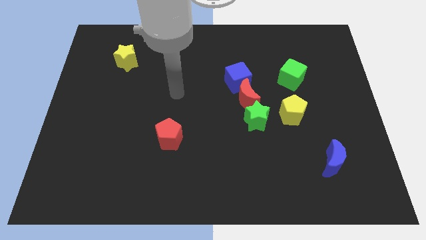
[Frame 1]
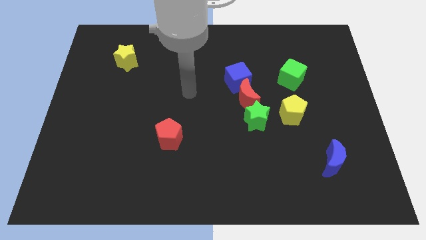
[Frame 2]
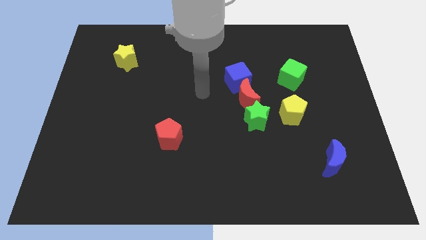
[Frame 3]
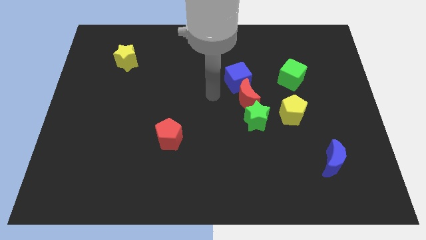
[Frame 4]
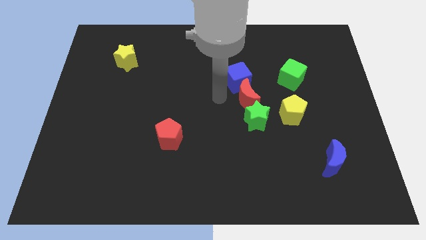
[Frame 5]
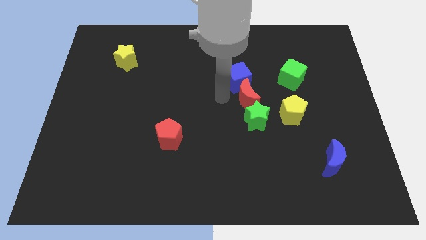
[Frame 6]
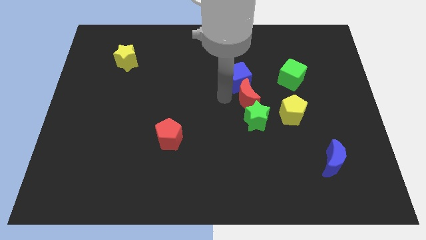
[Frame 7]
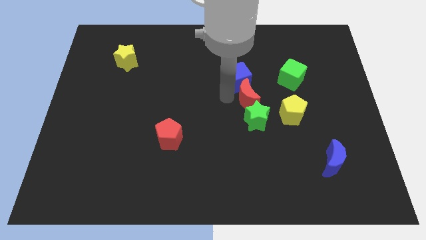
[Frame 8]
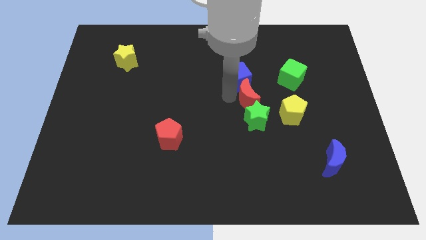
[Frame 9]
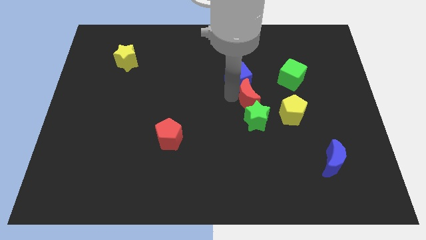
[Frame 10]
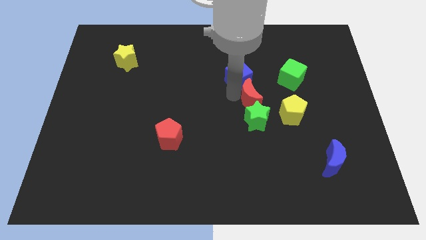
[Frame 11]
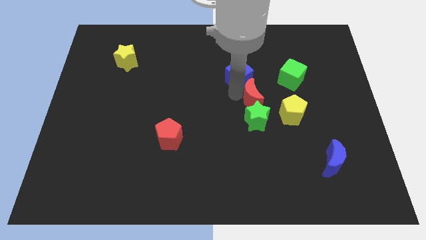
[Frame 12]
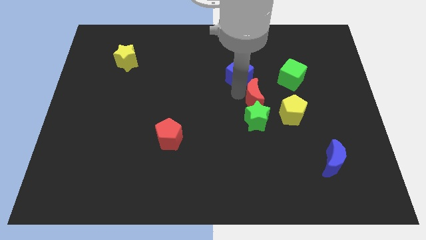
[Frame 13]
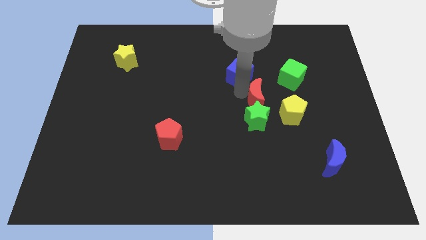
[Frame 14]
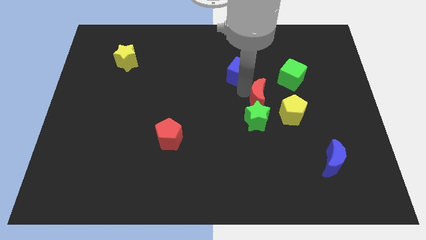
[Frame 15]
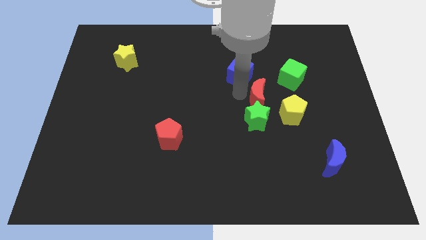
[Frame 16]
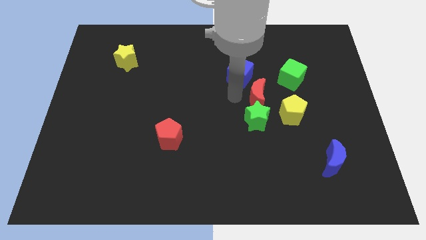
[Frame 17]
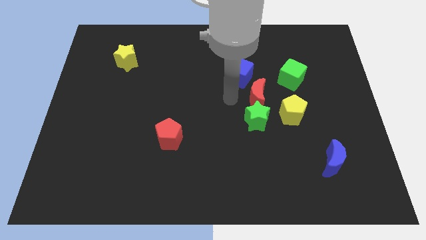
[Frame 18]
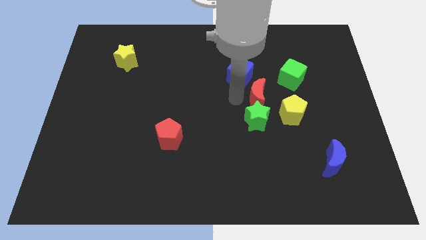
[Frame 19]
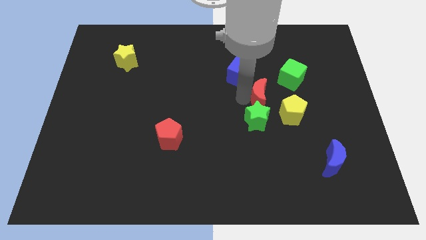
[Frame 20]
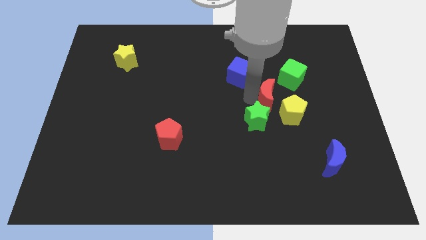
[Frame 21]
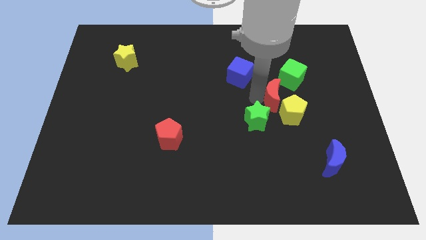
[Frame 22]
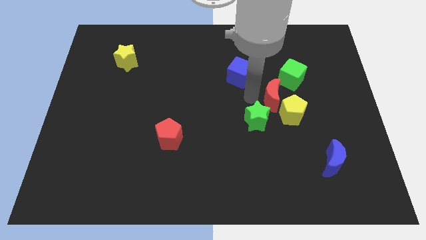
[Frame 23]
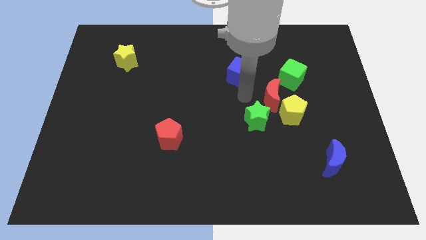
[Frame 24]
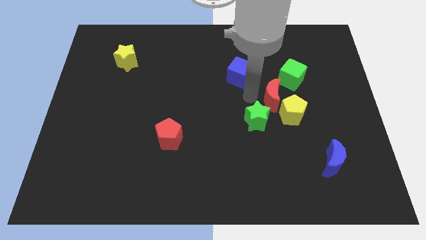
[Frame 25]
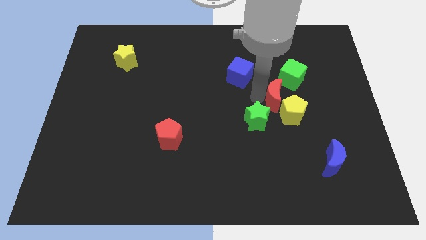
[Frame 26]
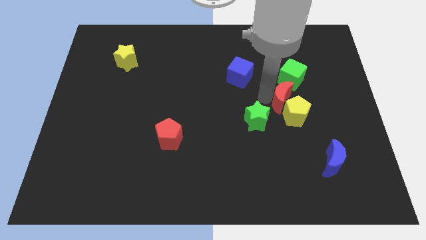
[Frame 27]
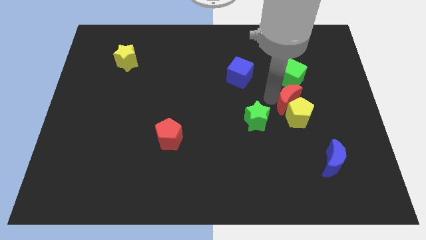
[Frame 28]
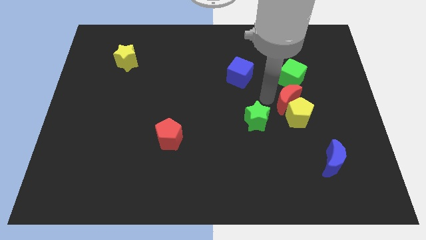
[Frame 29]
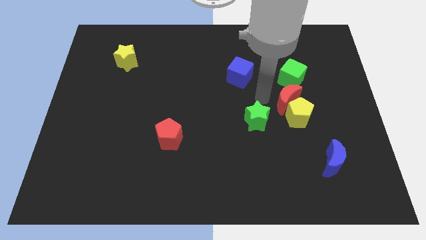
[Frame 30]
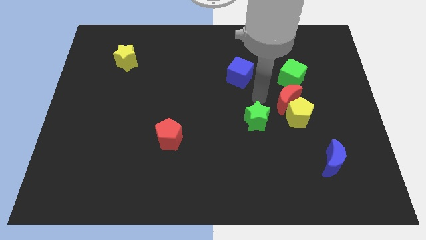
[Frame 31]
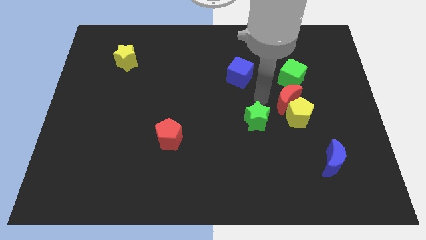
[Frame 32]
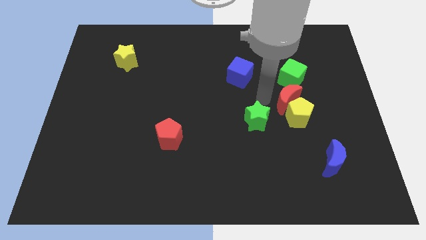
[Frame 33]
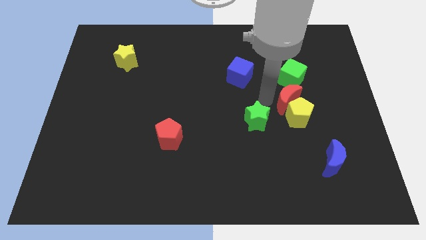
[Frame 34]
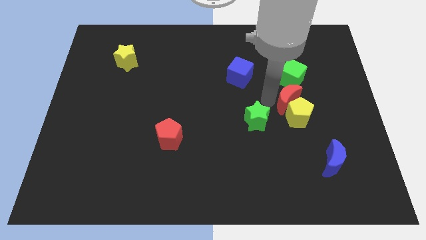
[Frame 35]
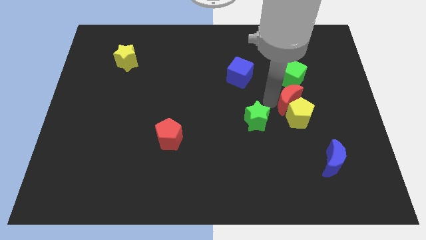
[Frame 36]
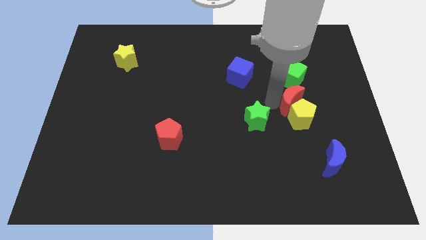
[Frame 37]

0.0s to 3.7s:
separate the red moon from the green star and blue cube

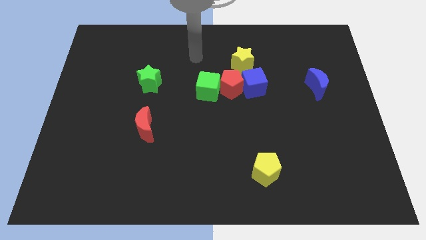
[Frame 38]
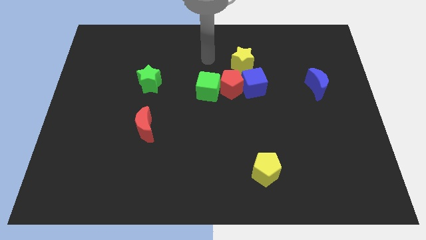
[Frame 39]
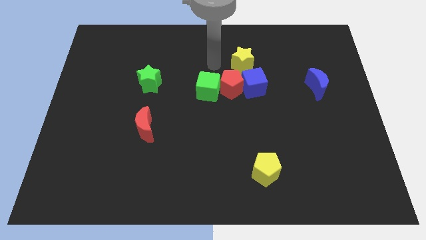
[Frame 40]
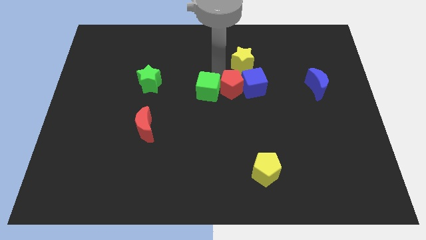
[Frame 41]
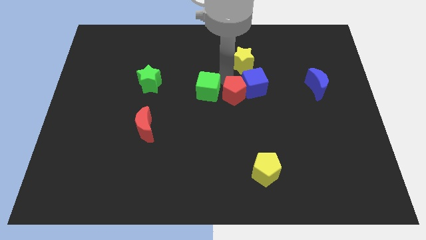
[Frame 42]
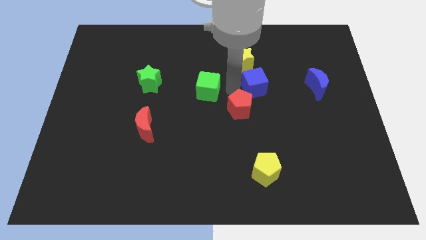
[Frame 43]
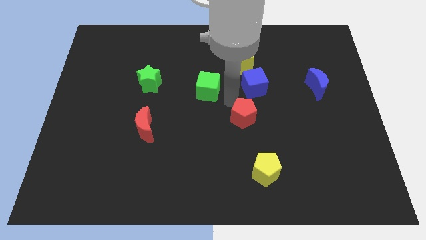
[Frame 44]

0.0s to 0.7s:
pull the green cube apart from the red pentagon

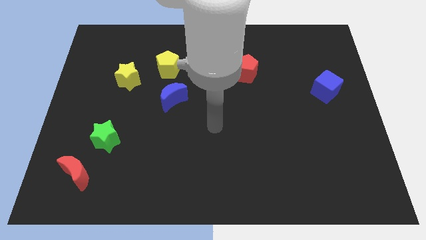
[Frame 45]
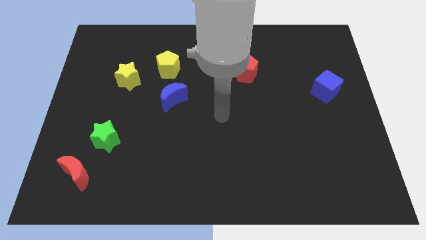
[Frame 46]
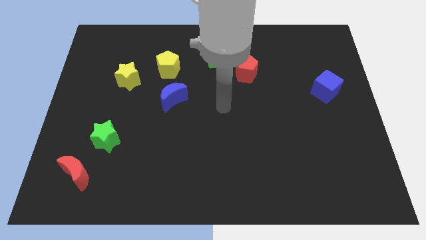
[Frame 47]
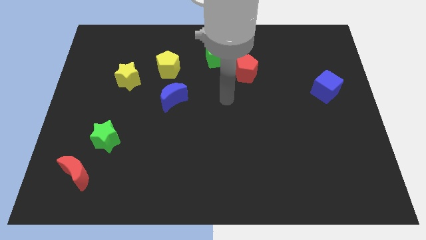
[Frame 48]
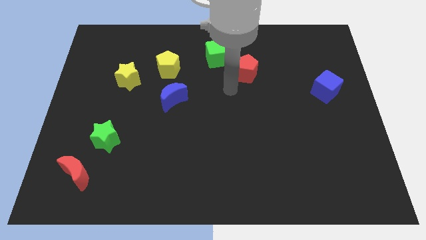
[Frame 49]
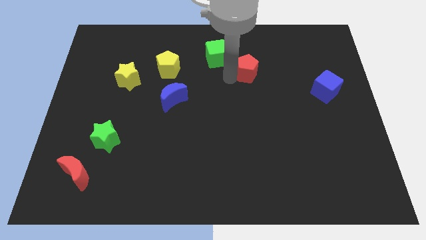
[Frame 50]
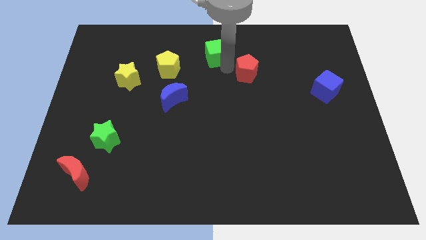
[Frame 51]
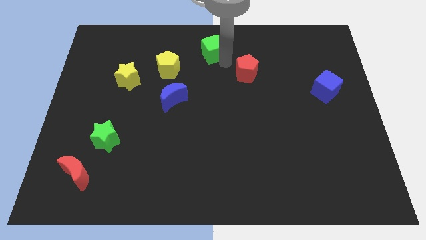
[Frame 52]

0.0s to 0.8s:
move the red pentagon away from the green cube

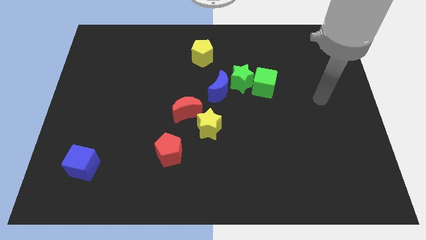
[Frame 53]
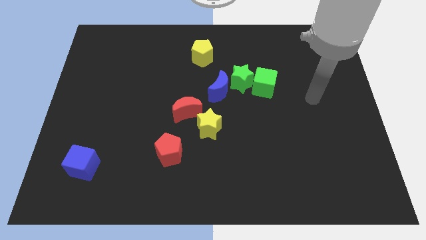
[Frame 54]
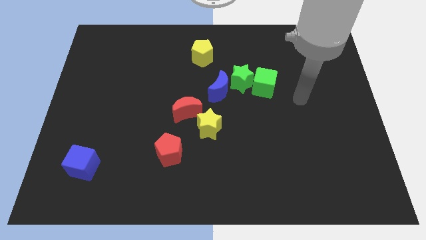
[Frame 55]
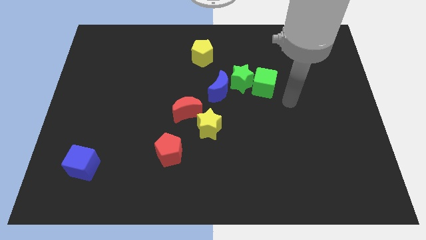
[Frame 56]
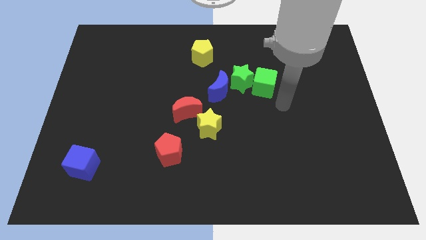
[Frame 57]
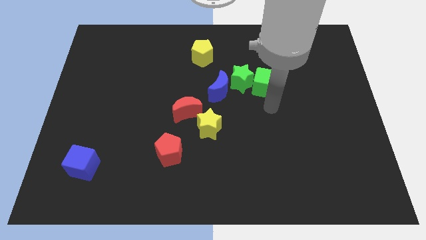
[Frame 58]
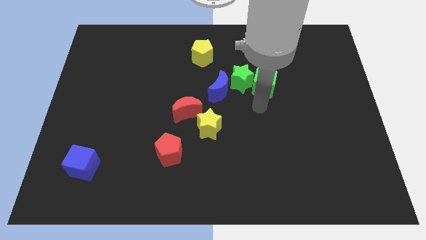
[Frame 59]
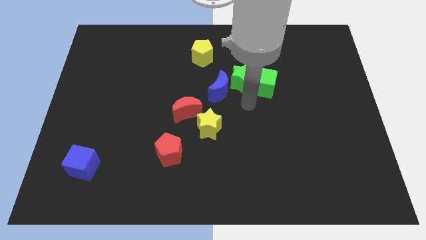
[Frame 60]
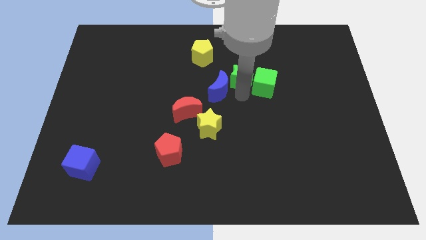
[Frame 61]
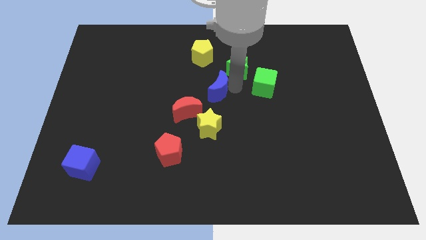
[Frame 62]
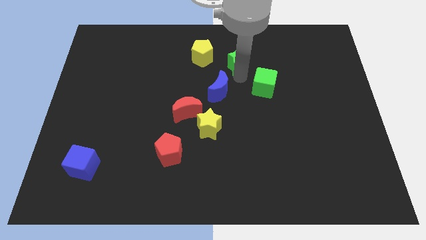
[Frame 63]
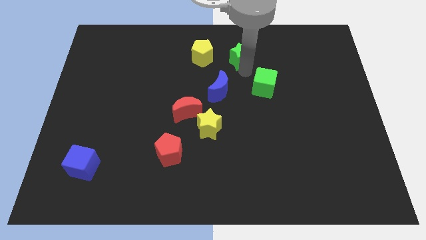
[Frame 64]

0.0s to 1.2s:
move the green cube away from the green star

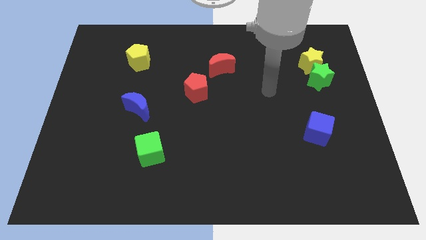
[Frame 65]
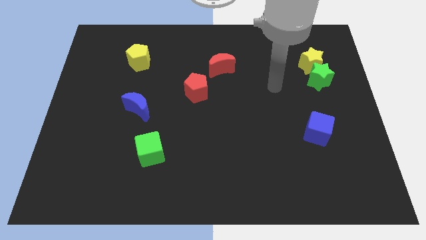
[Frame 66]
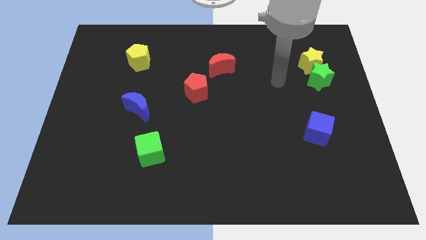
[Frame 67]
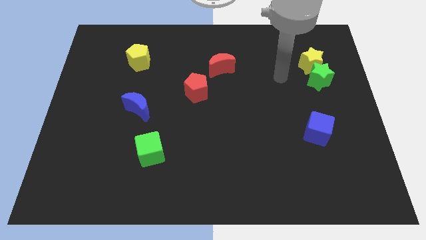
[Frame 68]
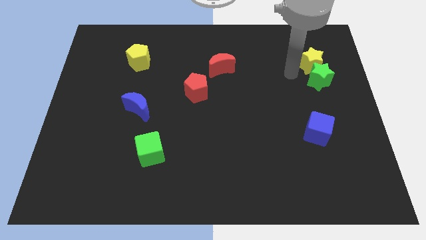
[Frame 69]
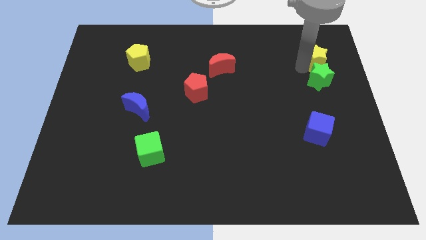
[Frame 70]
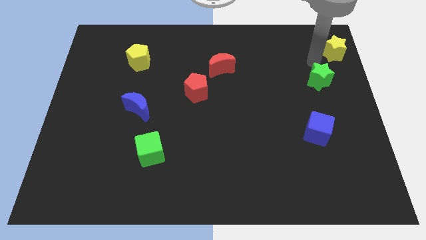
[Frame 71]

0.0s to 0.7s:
move the green star away from the yellow star

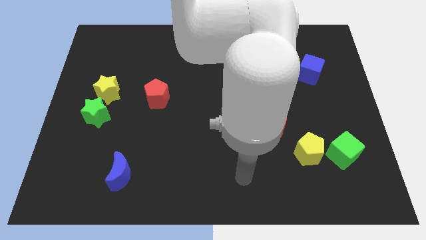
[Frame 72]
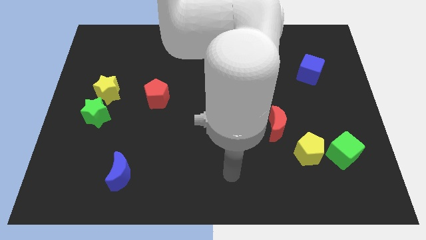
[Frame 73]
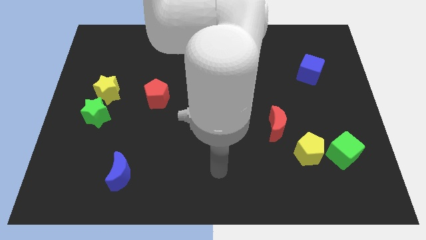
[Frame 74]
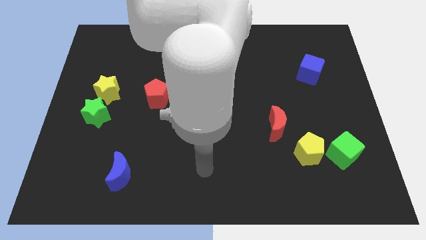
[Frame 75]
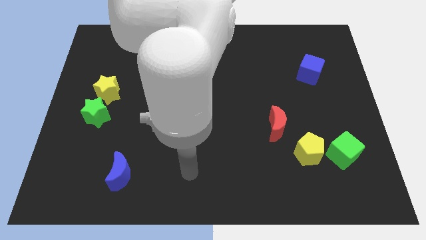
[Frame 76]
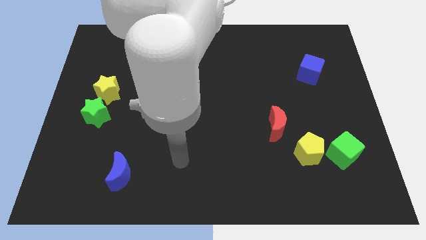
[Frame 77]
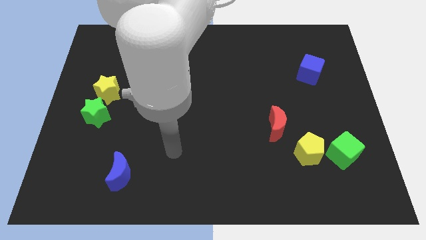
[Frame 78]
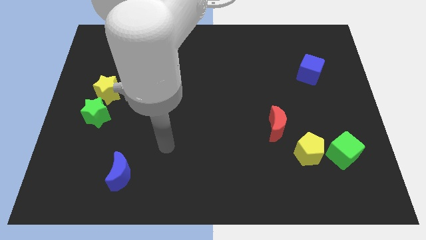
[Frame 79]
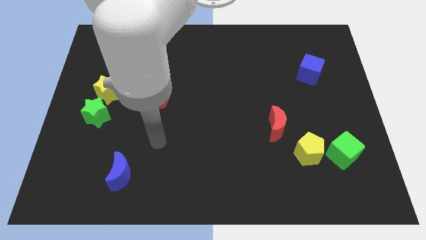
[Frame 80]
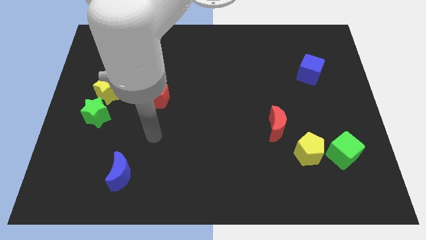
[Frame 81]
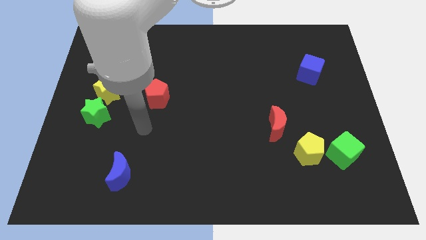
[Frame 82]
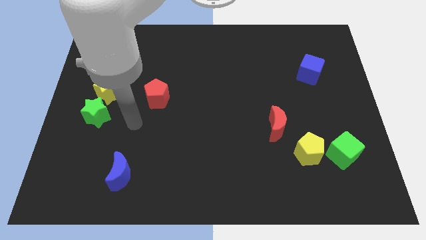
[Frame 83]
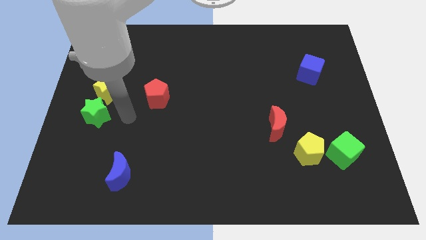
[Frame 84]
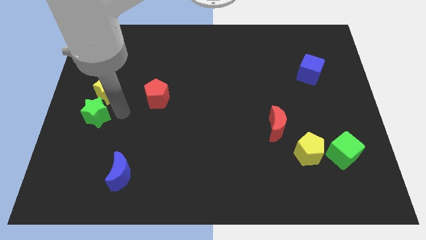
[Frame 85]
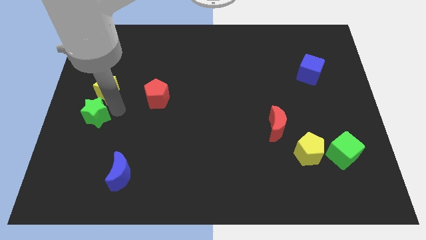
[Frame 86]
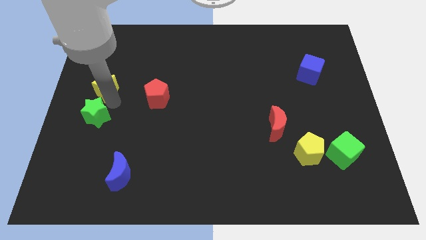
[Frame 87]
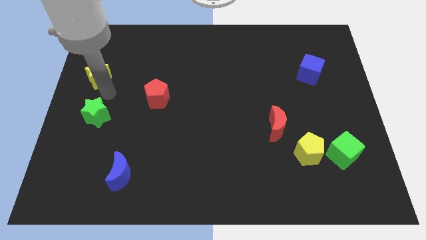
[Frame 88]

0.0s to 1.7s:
separate the green star from the yellow star

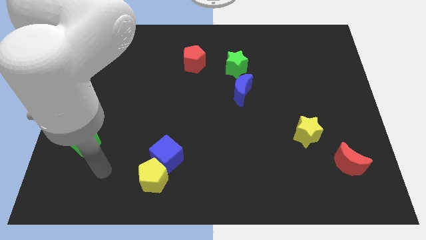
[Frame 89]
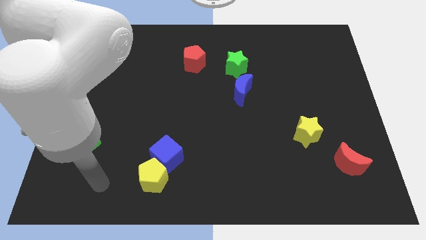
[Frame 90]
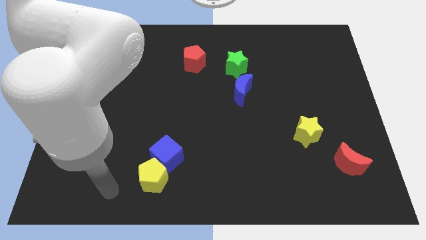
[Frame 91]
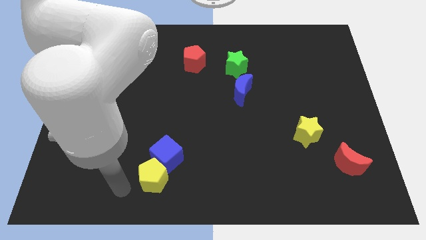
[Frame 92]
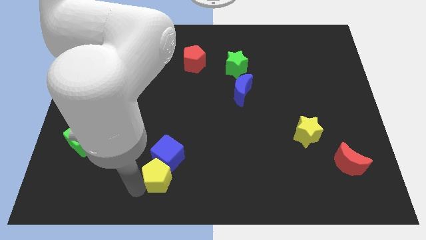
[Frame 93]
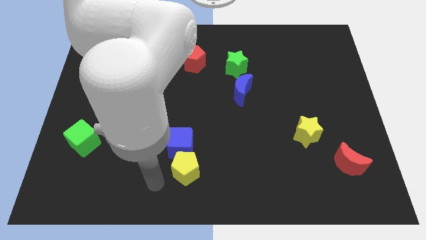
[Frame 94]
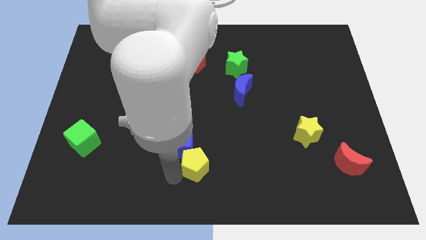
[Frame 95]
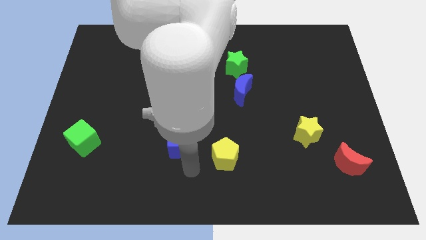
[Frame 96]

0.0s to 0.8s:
move the blue cube away from the yellow pentagon
